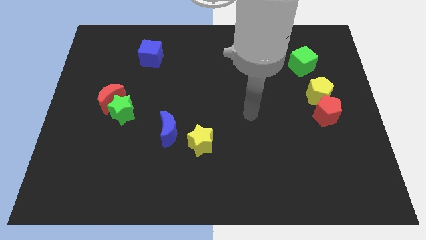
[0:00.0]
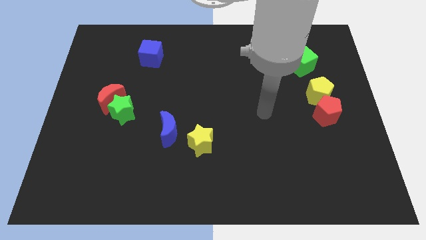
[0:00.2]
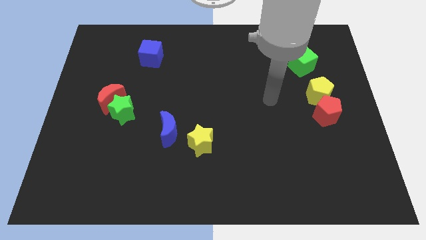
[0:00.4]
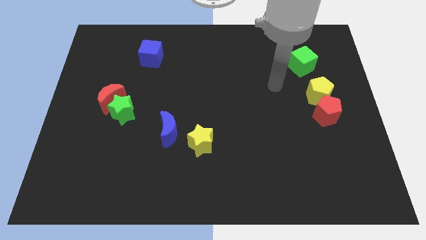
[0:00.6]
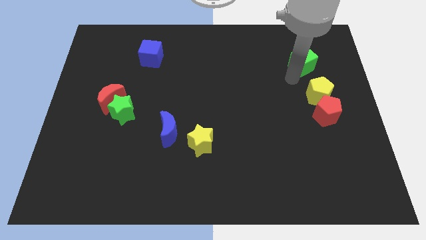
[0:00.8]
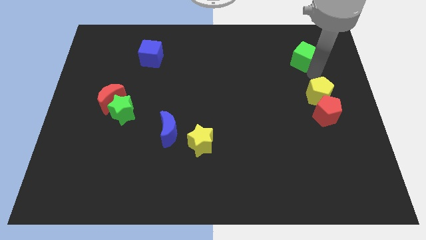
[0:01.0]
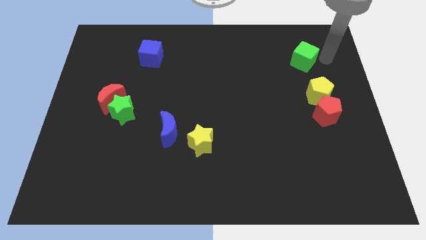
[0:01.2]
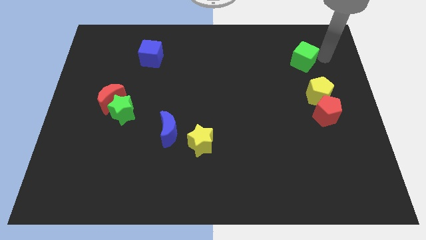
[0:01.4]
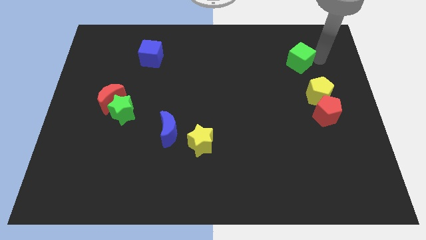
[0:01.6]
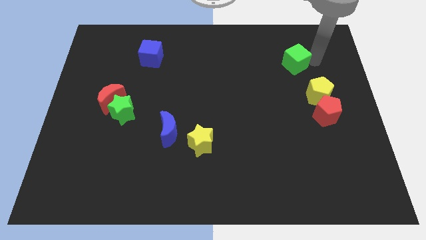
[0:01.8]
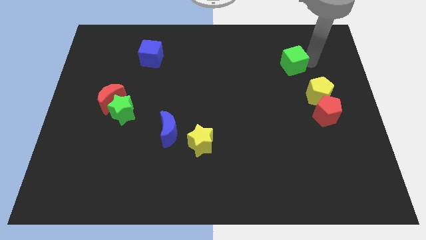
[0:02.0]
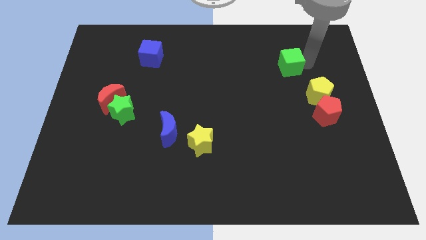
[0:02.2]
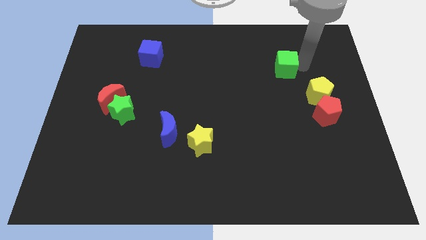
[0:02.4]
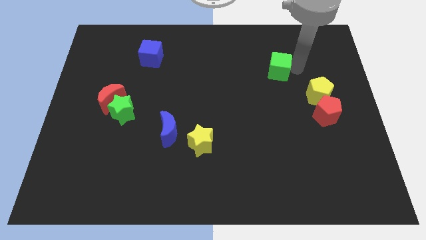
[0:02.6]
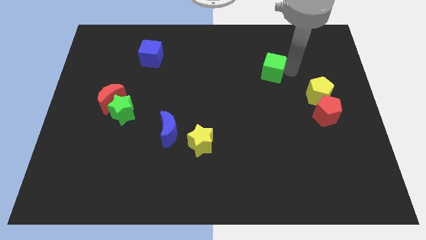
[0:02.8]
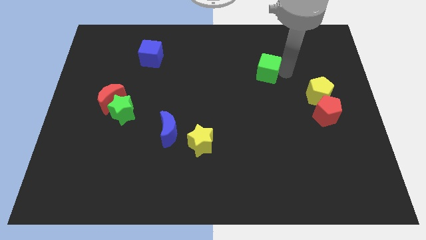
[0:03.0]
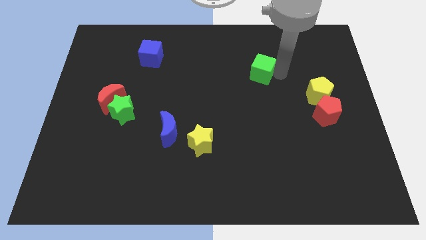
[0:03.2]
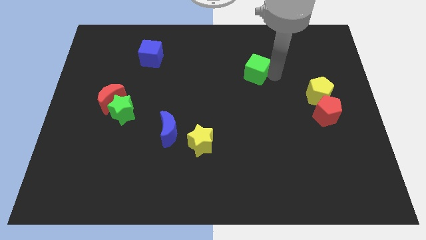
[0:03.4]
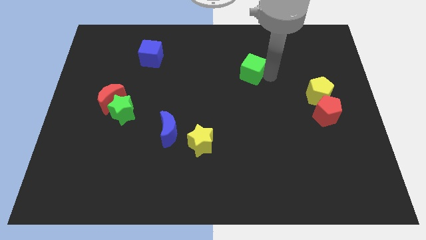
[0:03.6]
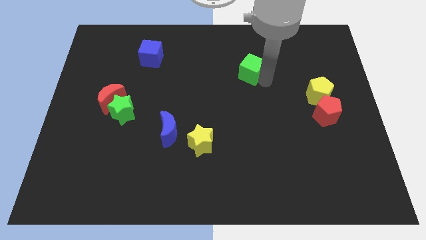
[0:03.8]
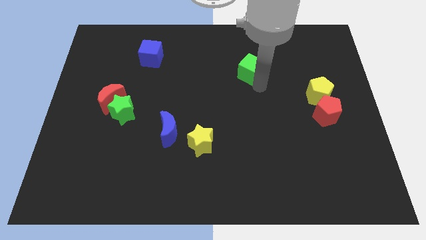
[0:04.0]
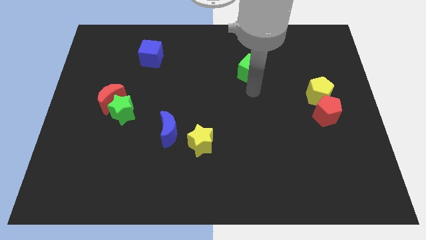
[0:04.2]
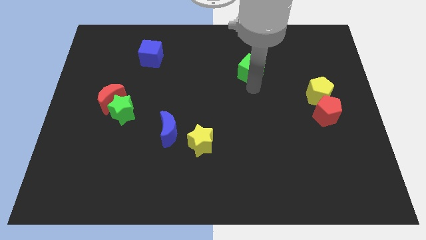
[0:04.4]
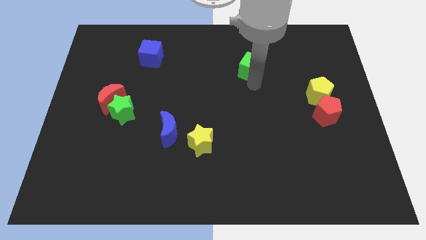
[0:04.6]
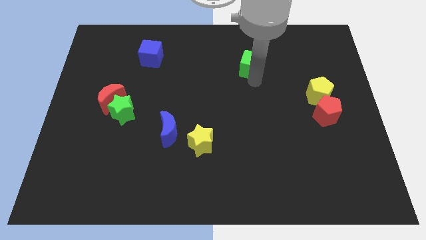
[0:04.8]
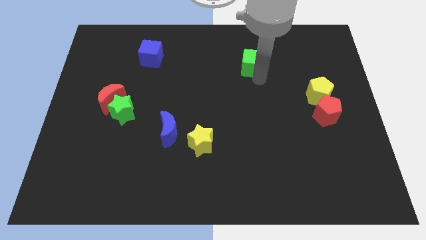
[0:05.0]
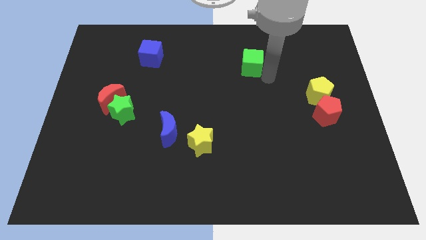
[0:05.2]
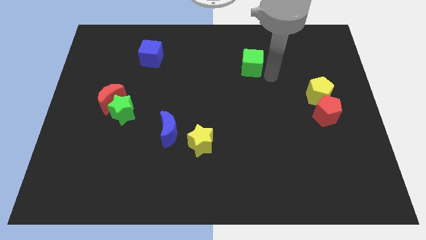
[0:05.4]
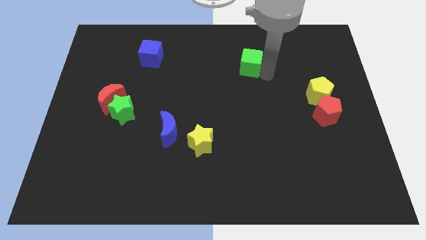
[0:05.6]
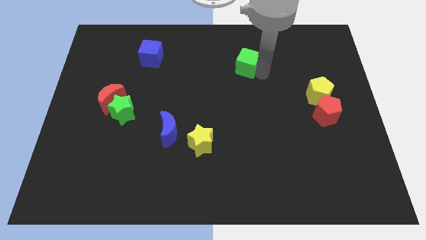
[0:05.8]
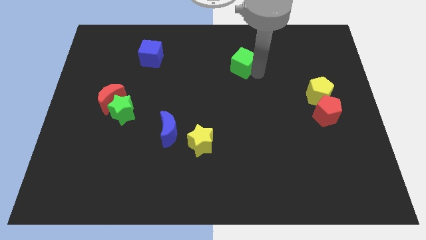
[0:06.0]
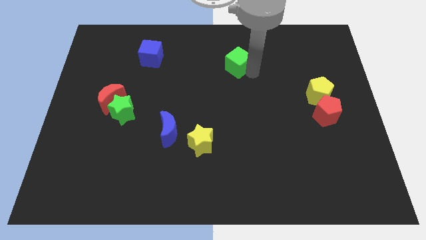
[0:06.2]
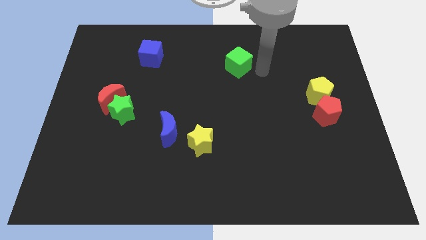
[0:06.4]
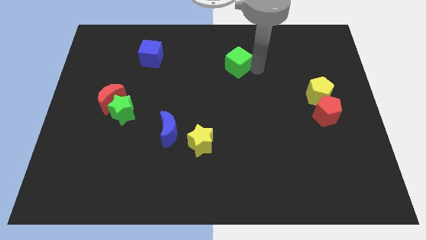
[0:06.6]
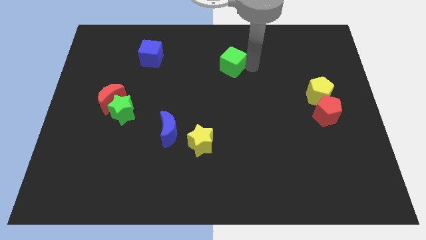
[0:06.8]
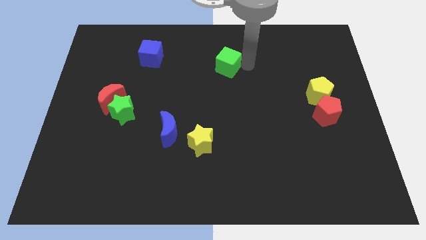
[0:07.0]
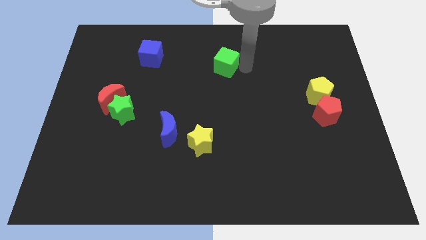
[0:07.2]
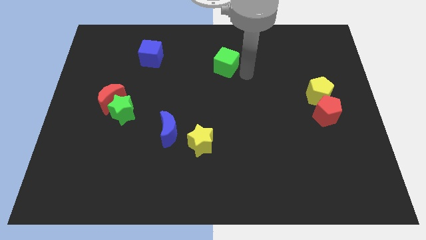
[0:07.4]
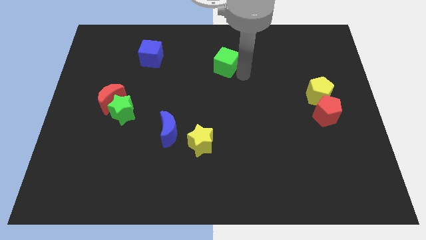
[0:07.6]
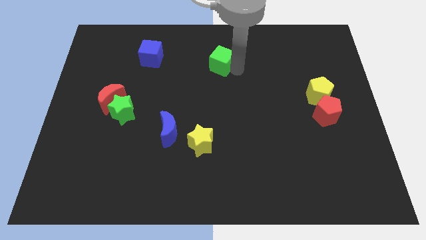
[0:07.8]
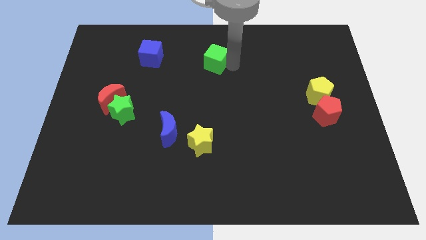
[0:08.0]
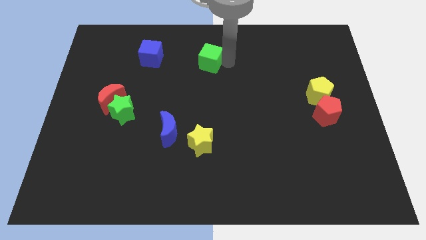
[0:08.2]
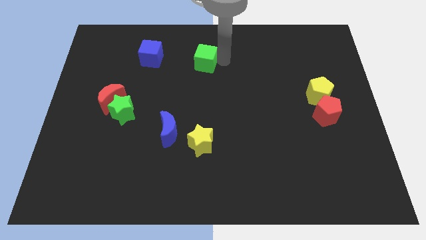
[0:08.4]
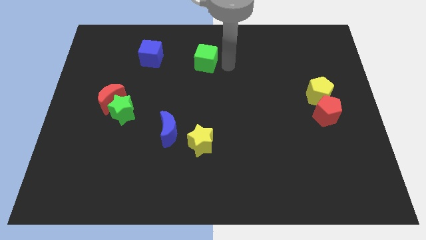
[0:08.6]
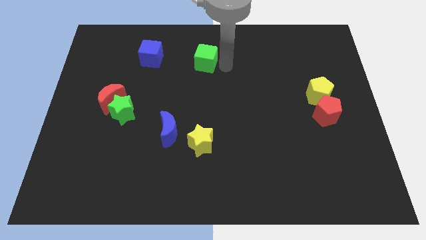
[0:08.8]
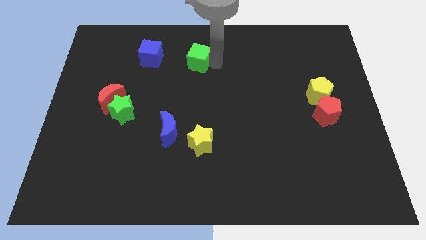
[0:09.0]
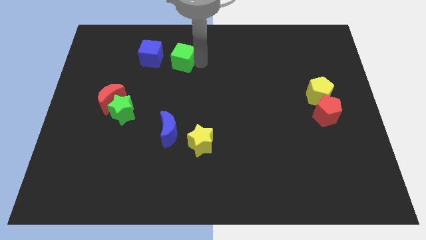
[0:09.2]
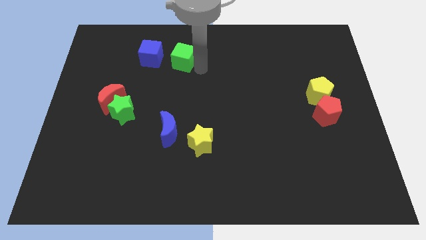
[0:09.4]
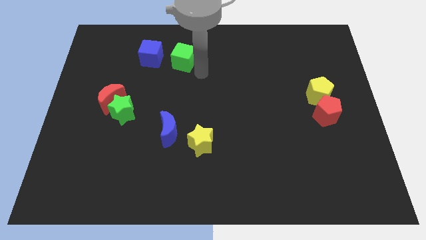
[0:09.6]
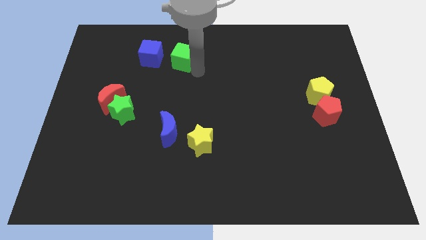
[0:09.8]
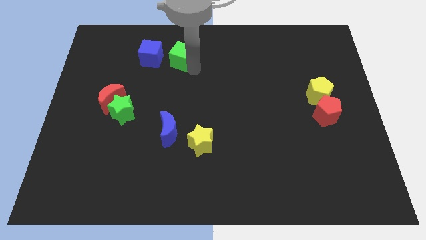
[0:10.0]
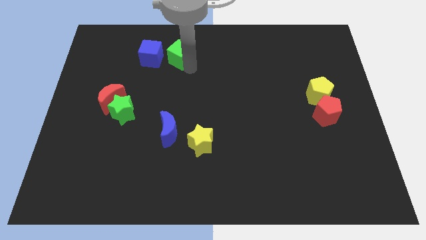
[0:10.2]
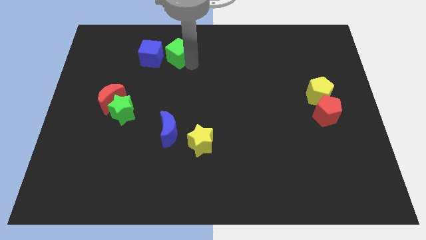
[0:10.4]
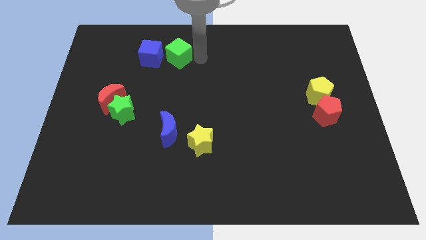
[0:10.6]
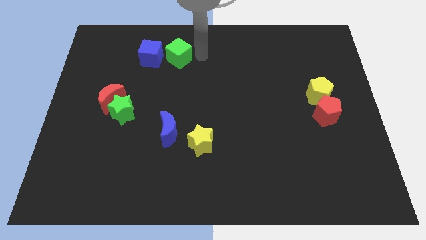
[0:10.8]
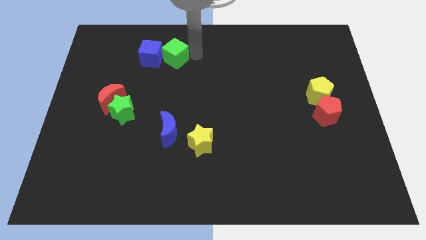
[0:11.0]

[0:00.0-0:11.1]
push the green cube towards the blue cube

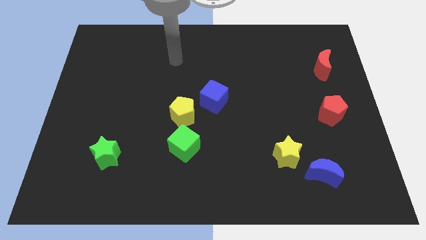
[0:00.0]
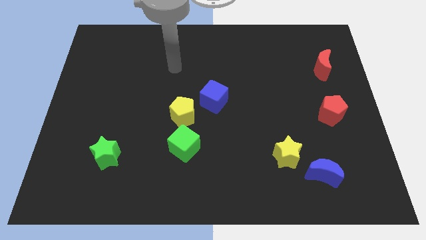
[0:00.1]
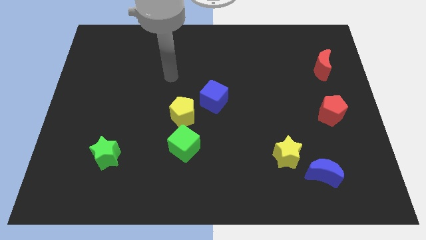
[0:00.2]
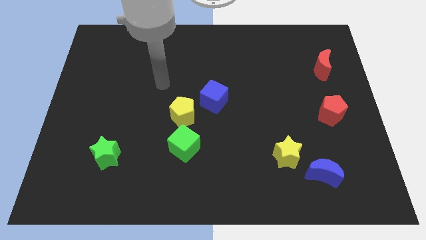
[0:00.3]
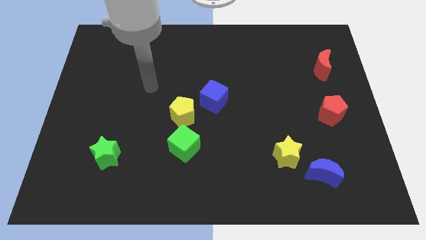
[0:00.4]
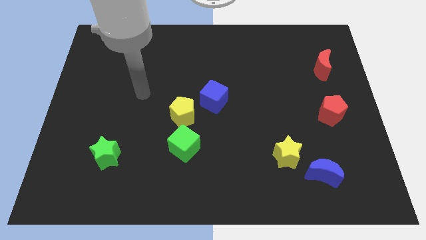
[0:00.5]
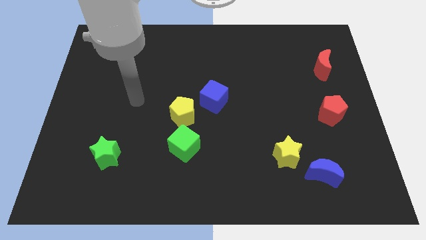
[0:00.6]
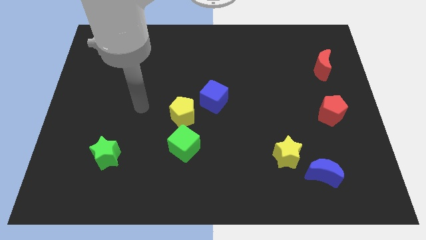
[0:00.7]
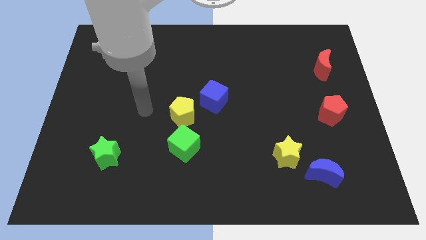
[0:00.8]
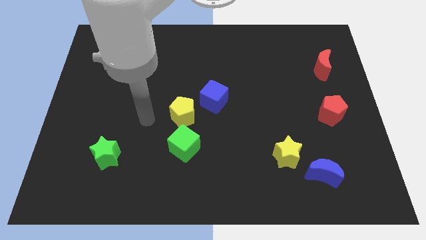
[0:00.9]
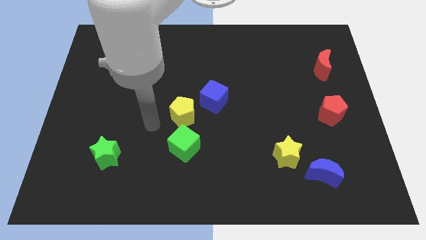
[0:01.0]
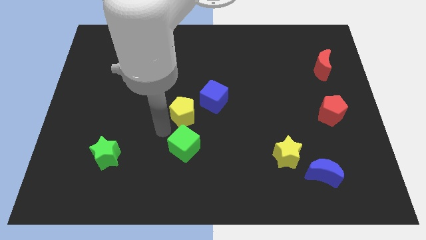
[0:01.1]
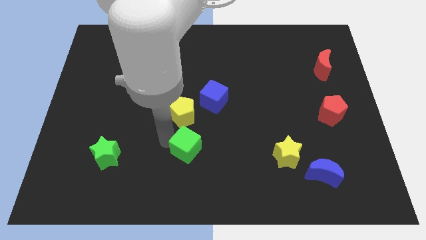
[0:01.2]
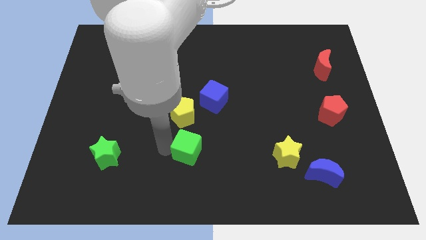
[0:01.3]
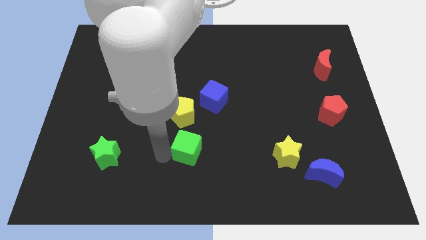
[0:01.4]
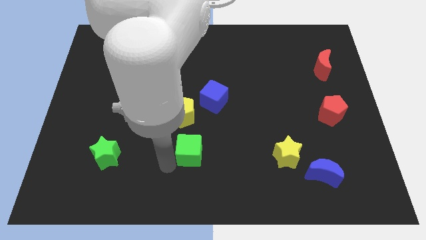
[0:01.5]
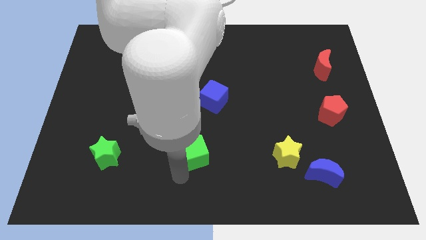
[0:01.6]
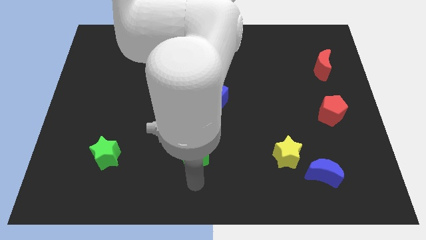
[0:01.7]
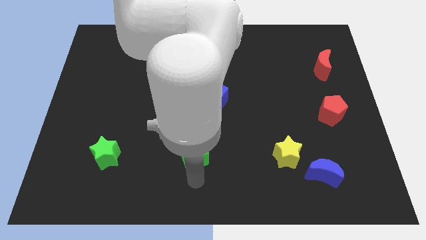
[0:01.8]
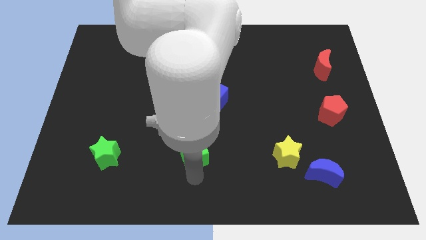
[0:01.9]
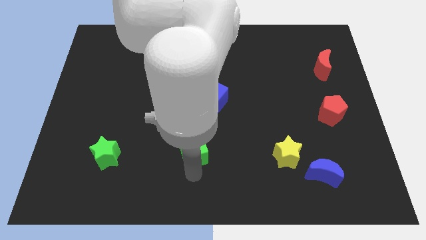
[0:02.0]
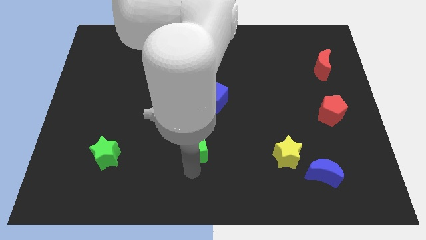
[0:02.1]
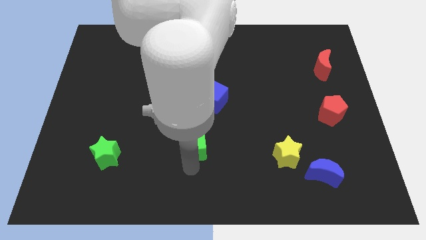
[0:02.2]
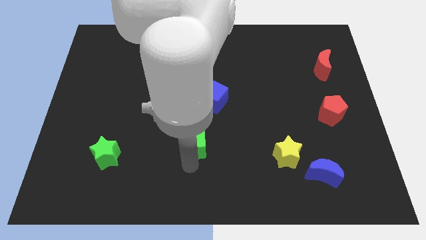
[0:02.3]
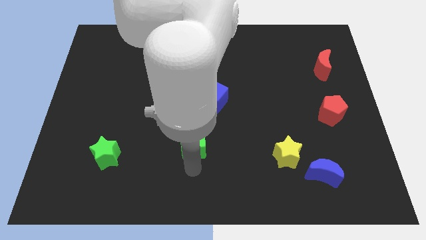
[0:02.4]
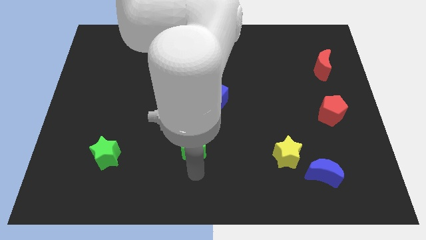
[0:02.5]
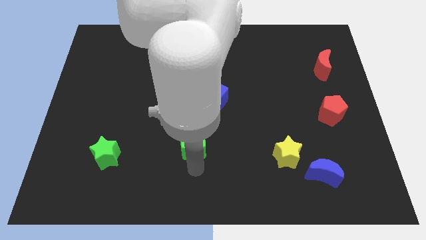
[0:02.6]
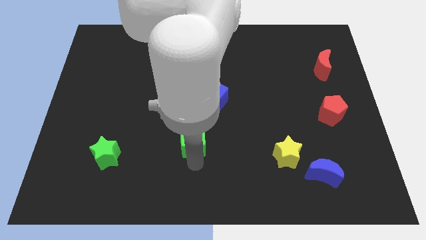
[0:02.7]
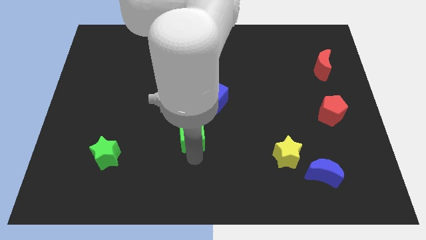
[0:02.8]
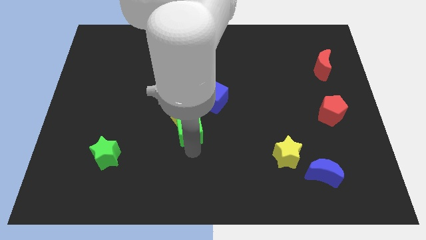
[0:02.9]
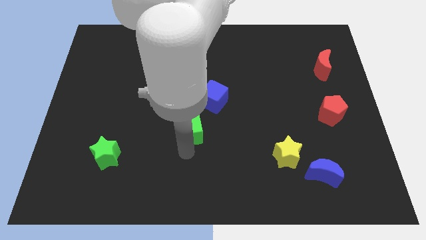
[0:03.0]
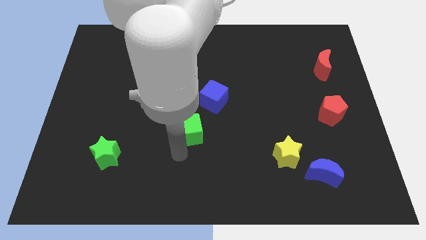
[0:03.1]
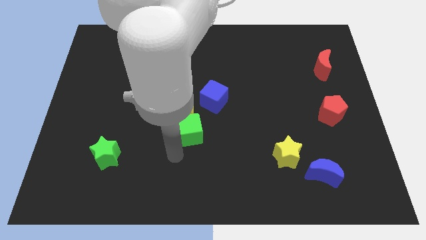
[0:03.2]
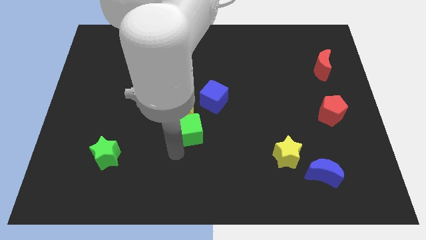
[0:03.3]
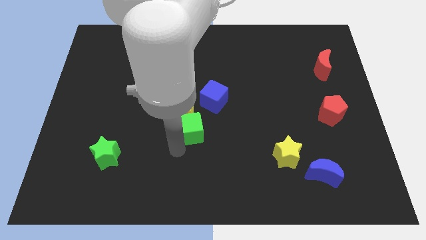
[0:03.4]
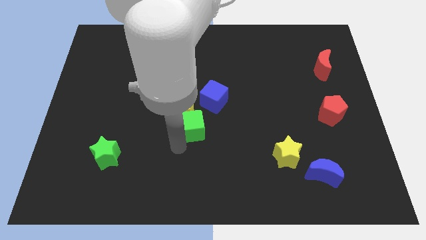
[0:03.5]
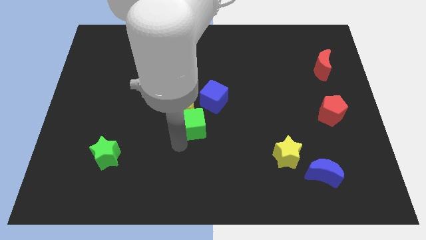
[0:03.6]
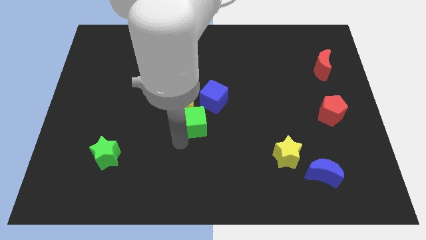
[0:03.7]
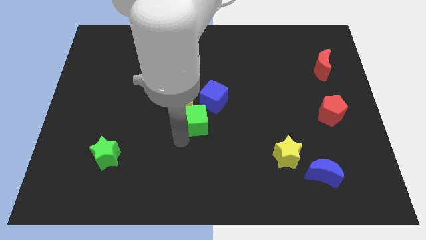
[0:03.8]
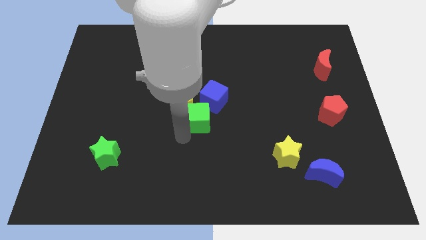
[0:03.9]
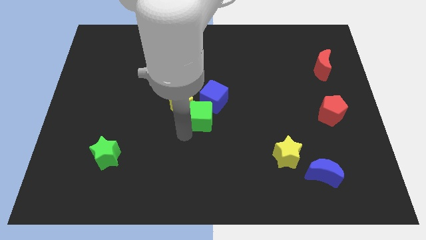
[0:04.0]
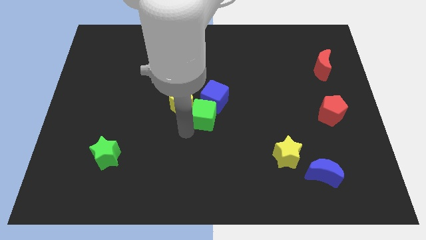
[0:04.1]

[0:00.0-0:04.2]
put the green cube to the blue cube
